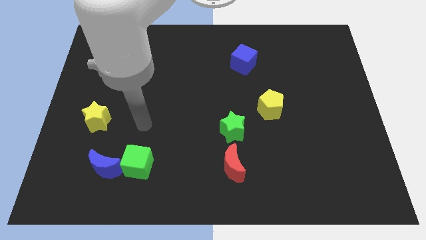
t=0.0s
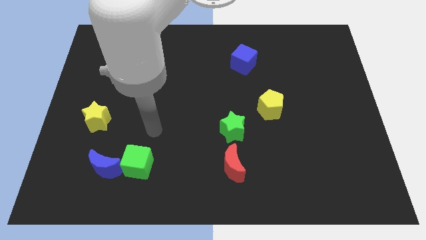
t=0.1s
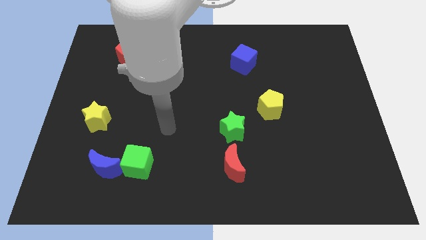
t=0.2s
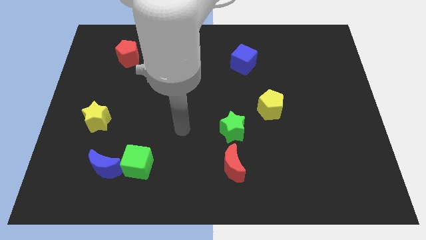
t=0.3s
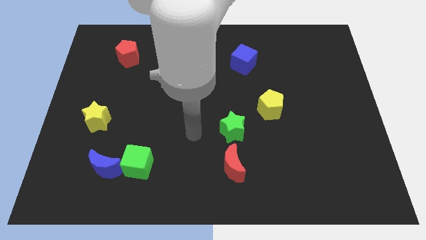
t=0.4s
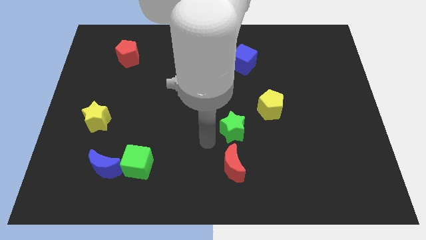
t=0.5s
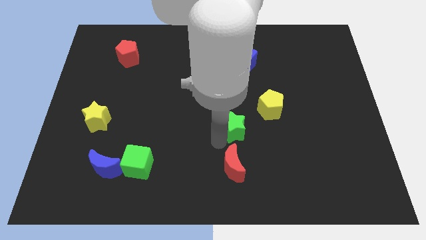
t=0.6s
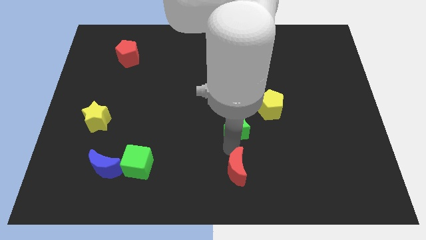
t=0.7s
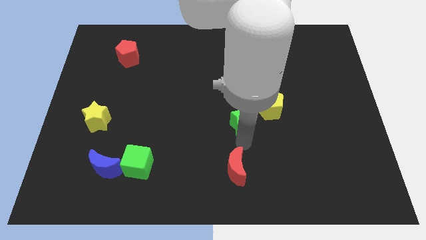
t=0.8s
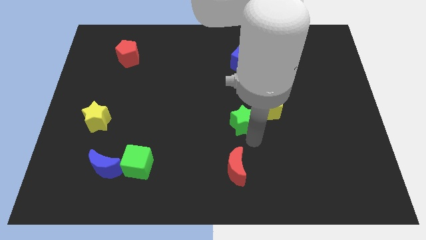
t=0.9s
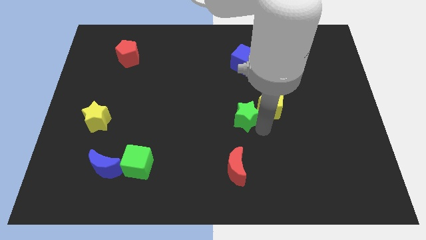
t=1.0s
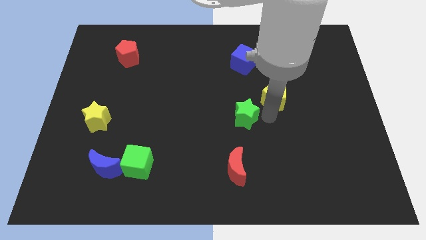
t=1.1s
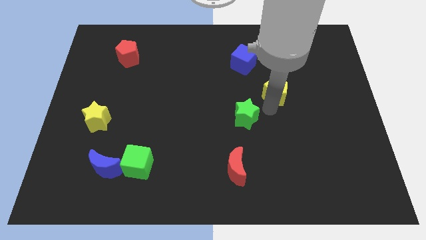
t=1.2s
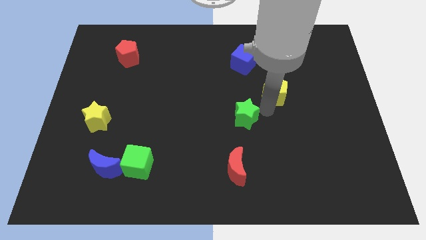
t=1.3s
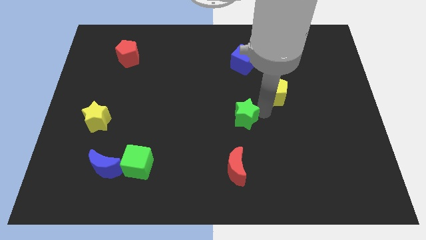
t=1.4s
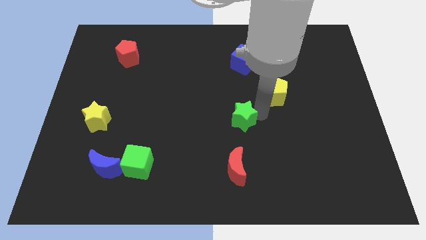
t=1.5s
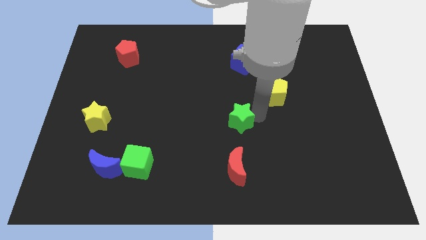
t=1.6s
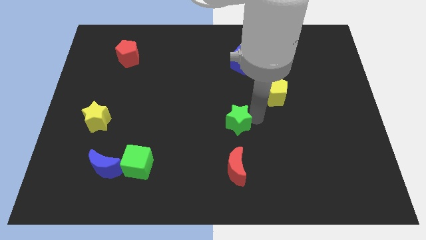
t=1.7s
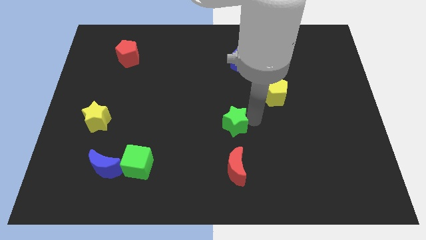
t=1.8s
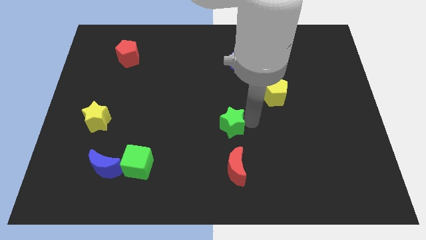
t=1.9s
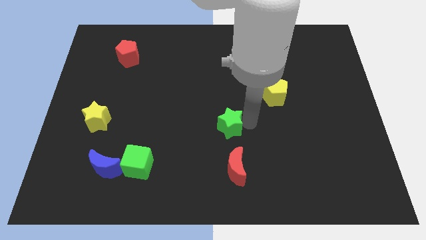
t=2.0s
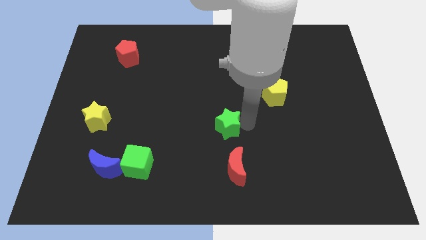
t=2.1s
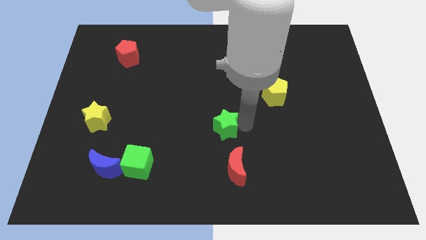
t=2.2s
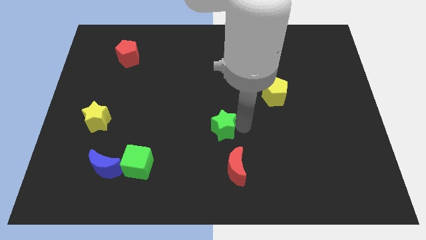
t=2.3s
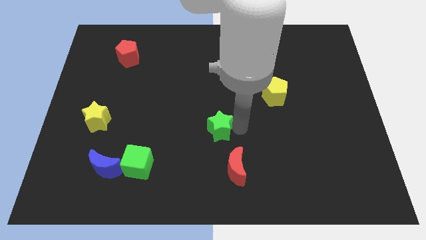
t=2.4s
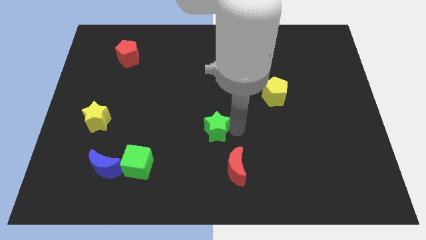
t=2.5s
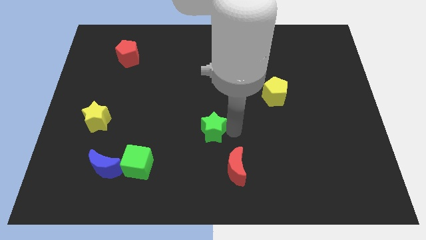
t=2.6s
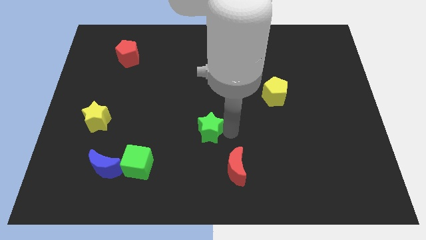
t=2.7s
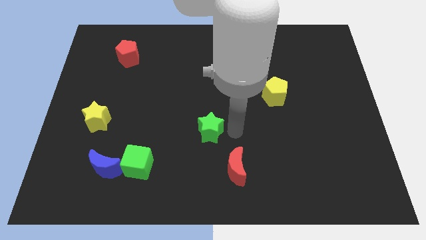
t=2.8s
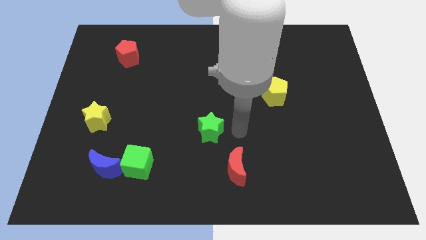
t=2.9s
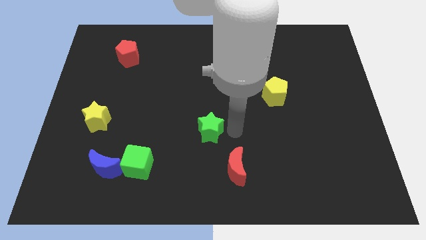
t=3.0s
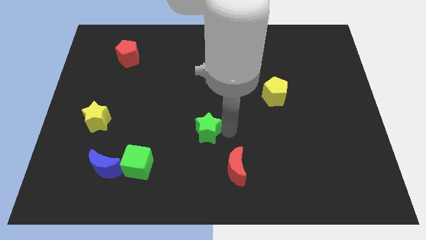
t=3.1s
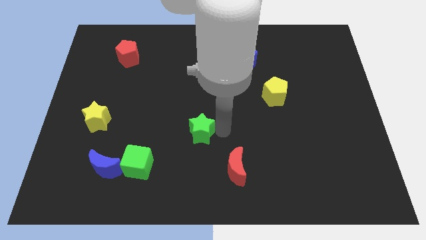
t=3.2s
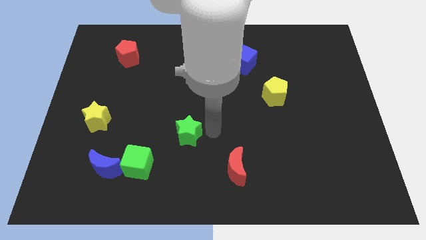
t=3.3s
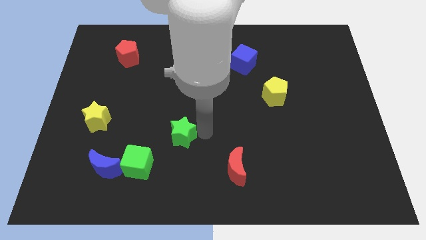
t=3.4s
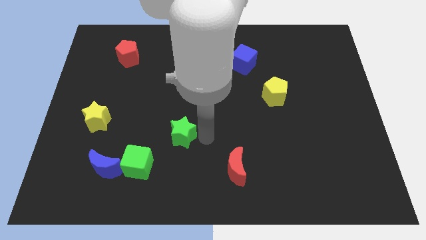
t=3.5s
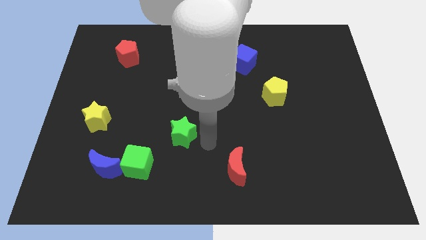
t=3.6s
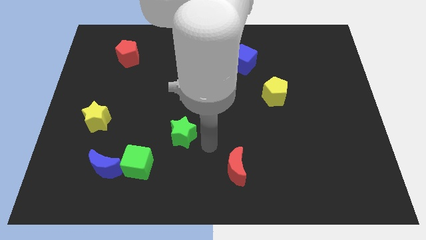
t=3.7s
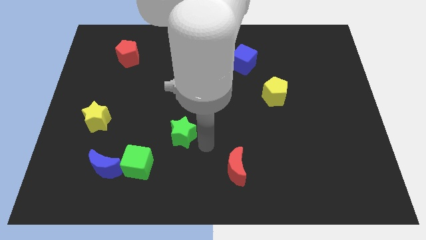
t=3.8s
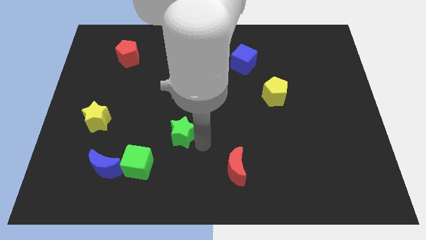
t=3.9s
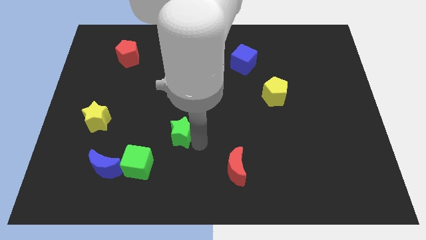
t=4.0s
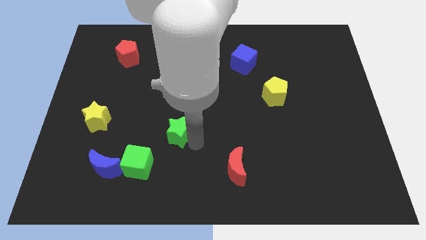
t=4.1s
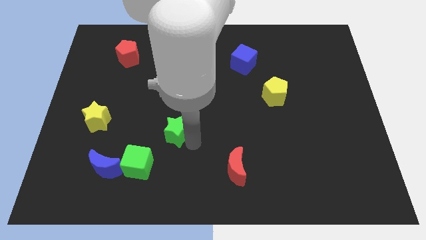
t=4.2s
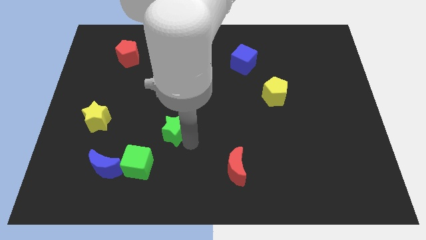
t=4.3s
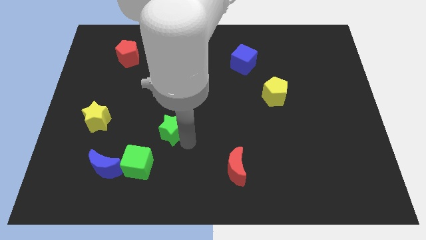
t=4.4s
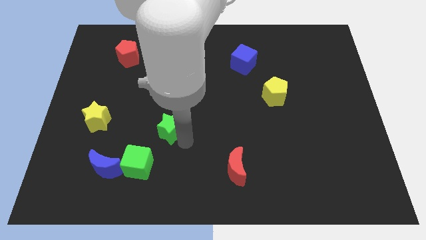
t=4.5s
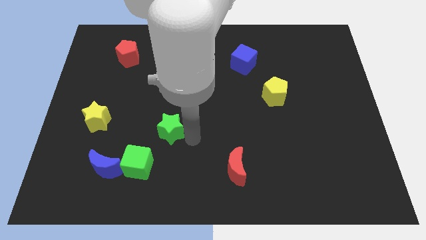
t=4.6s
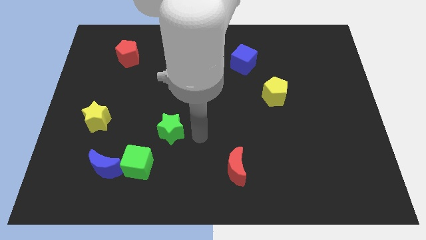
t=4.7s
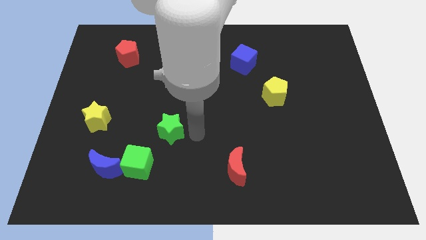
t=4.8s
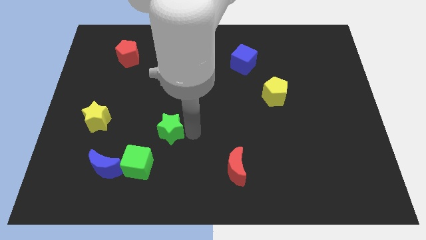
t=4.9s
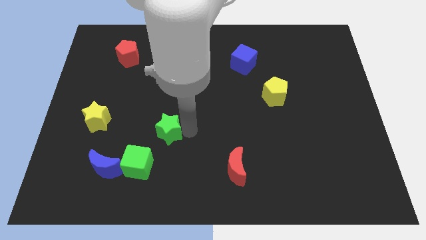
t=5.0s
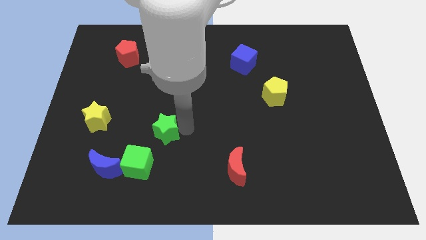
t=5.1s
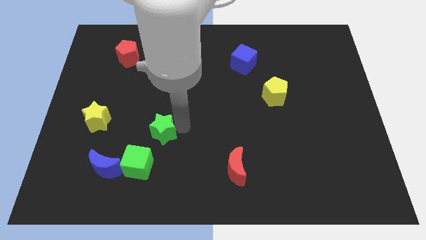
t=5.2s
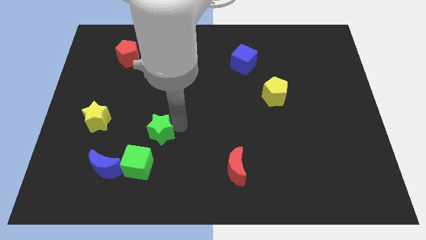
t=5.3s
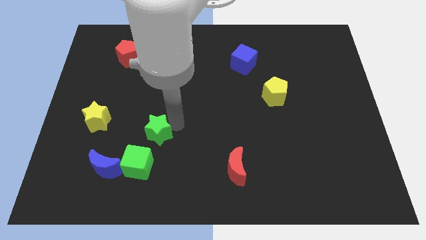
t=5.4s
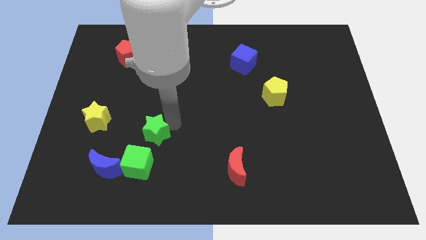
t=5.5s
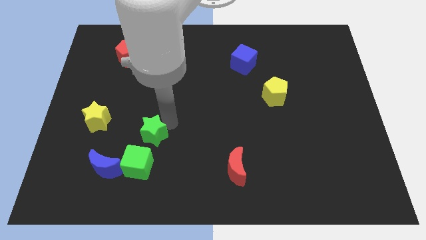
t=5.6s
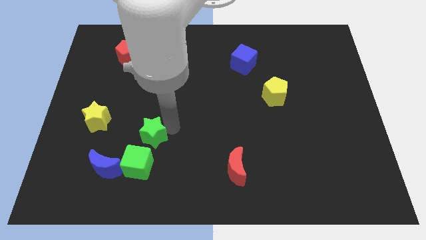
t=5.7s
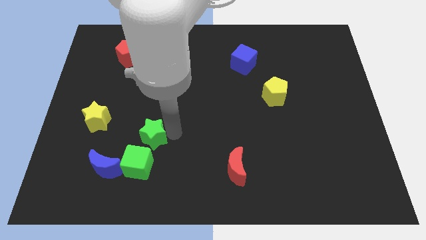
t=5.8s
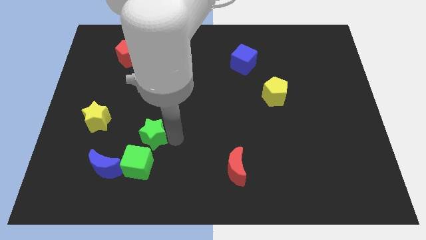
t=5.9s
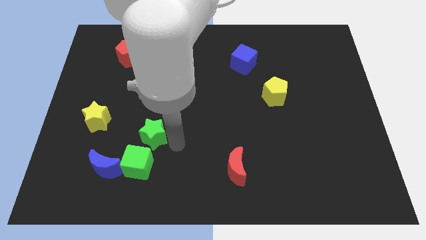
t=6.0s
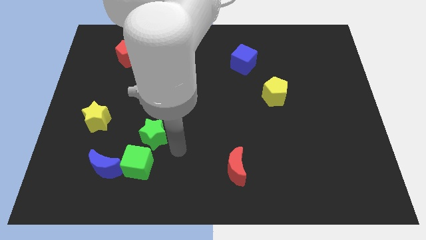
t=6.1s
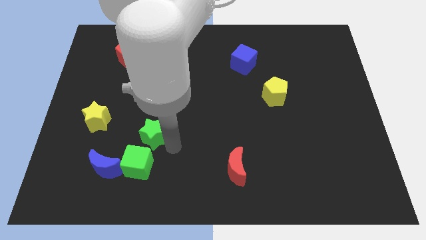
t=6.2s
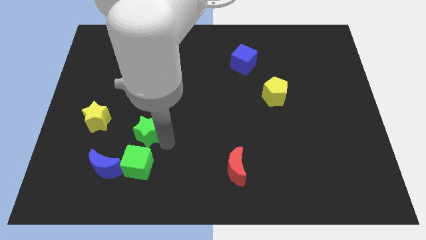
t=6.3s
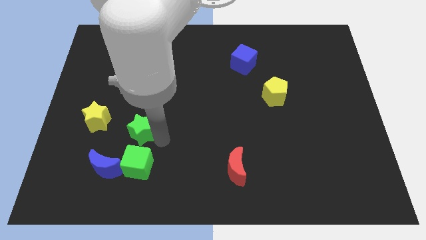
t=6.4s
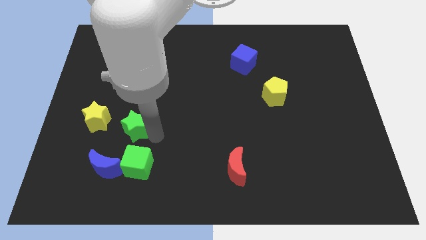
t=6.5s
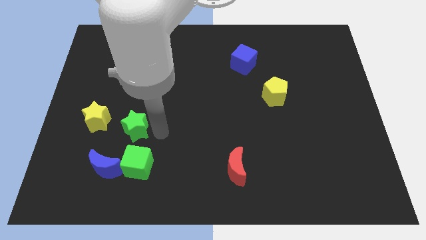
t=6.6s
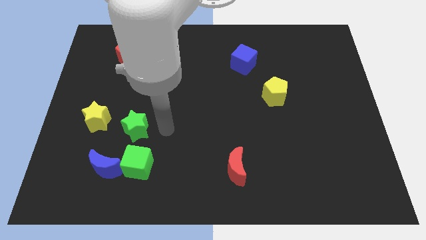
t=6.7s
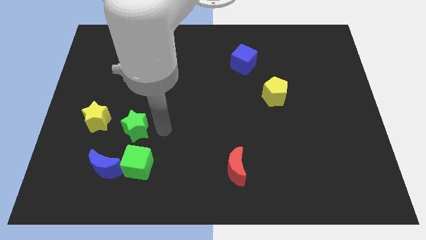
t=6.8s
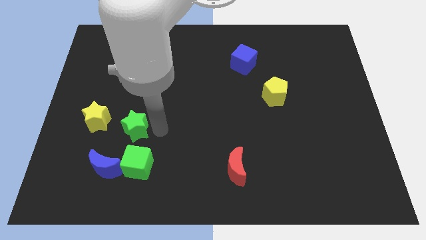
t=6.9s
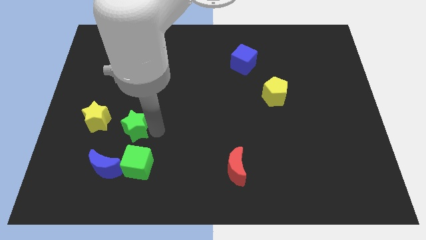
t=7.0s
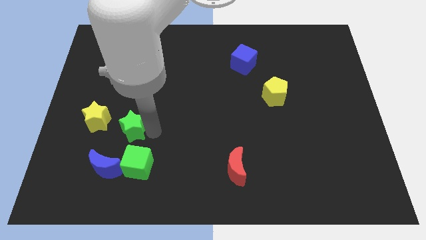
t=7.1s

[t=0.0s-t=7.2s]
move the green star above the blue moon
